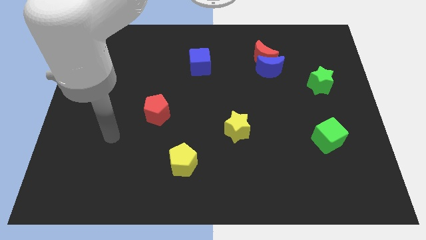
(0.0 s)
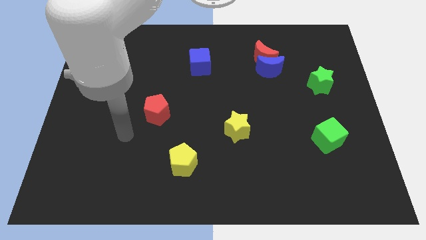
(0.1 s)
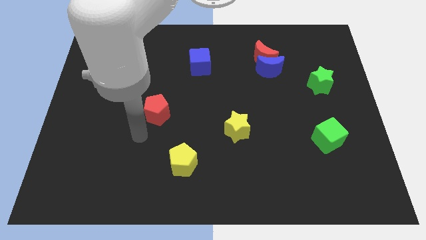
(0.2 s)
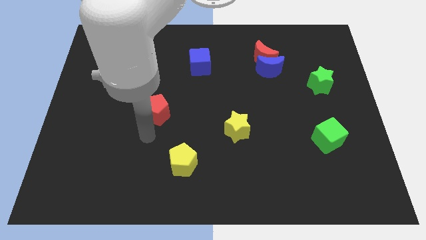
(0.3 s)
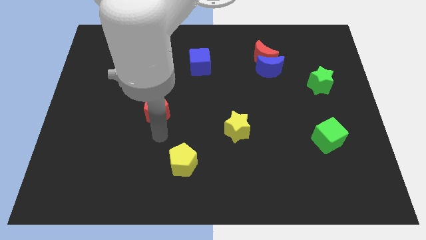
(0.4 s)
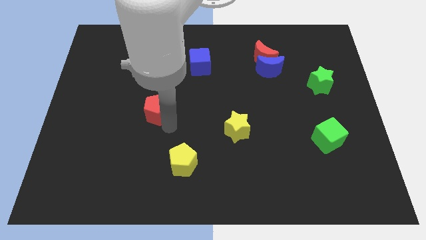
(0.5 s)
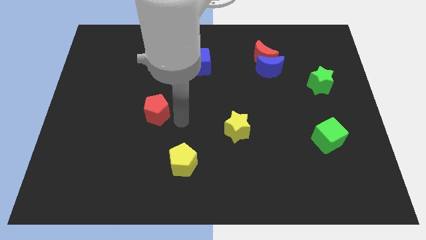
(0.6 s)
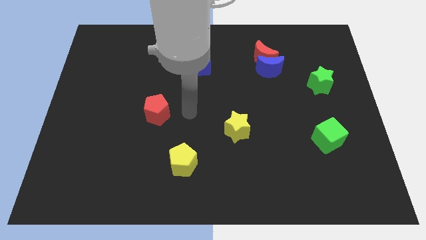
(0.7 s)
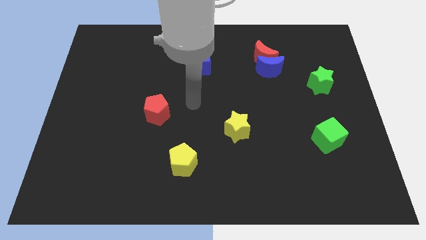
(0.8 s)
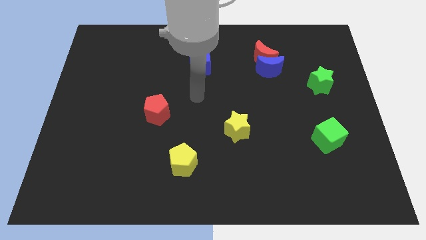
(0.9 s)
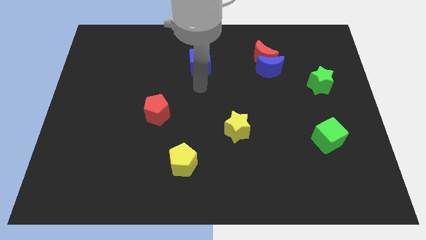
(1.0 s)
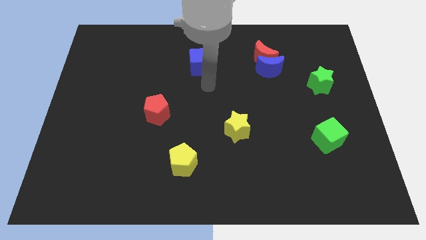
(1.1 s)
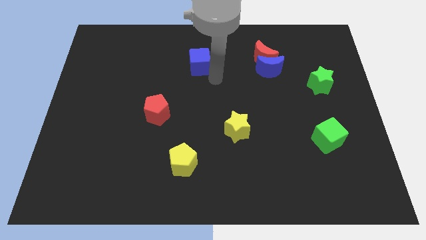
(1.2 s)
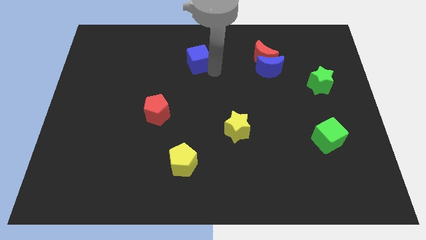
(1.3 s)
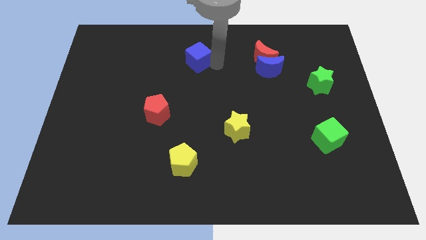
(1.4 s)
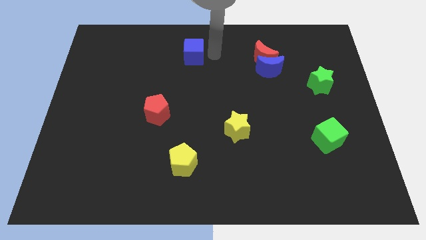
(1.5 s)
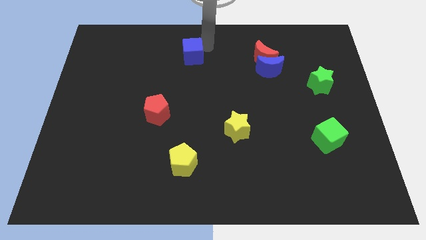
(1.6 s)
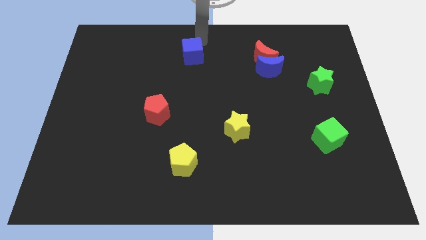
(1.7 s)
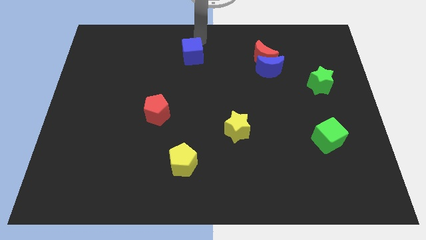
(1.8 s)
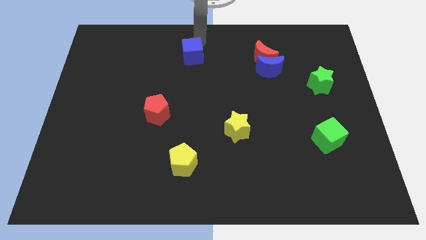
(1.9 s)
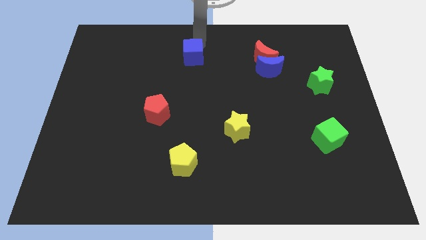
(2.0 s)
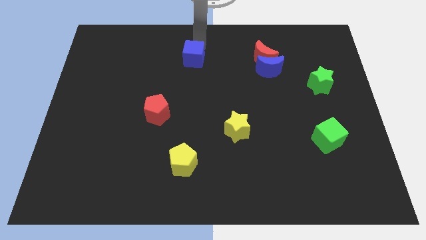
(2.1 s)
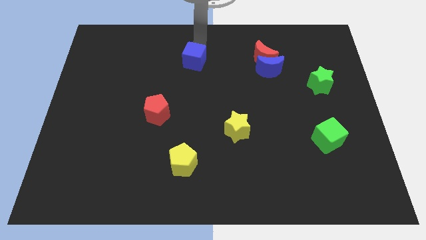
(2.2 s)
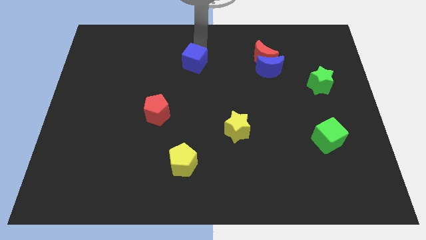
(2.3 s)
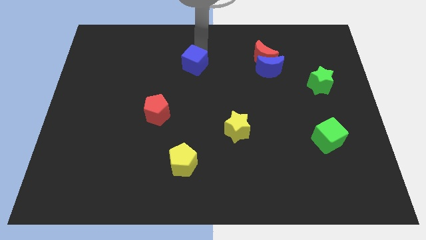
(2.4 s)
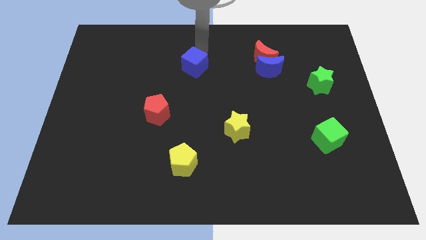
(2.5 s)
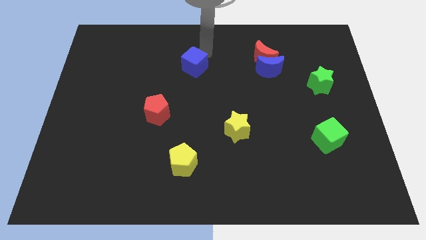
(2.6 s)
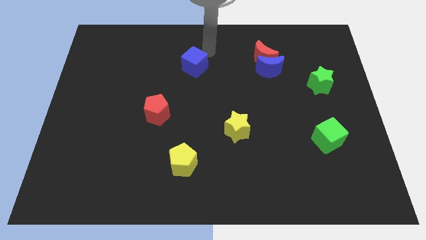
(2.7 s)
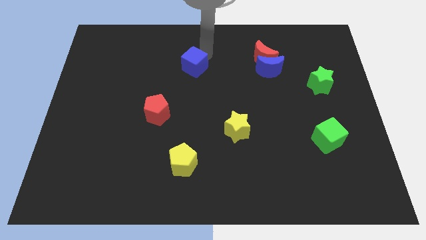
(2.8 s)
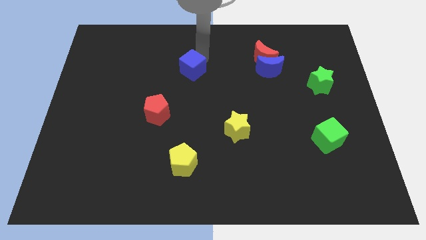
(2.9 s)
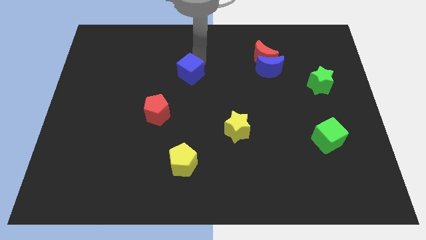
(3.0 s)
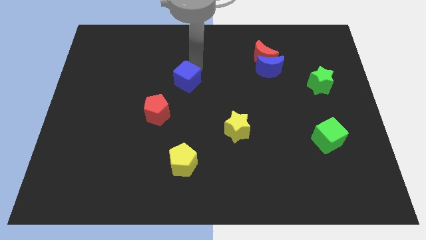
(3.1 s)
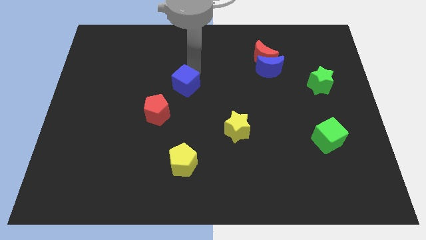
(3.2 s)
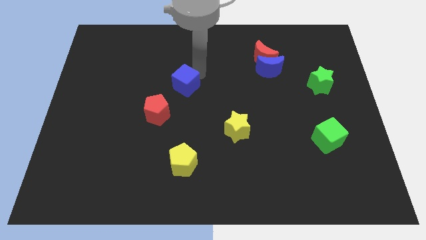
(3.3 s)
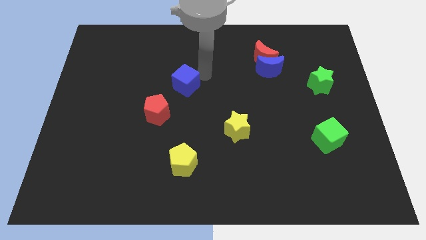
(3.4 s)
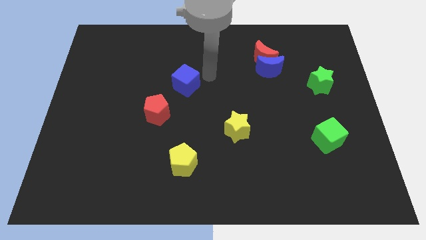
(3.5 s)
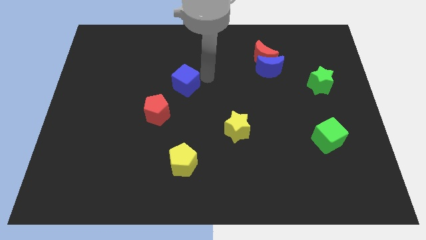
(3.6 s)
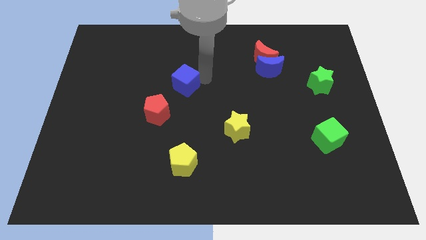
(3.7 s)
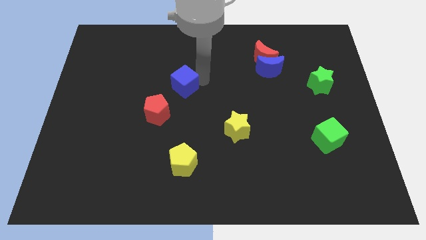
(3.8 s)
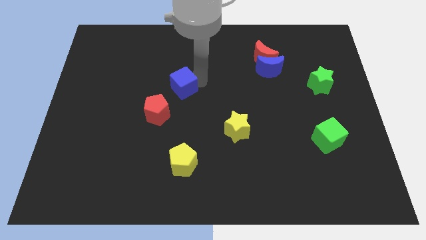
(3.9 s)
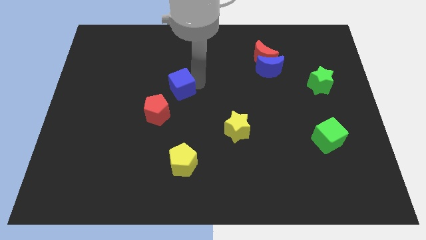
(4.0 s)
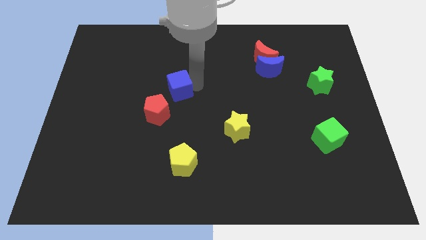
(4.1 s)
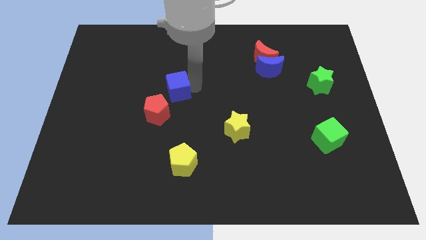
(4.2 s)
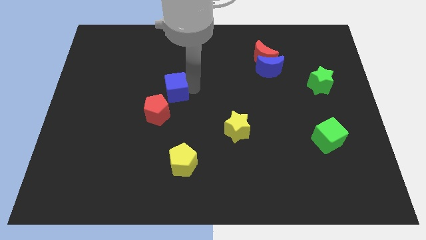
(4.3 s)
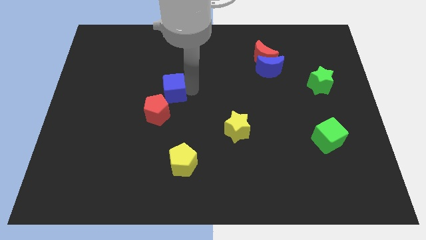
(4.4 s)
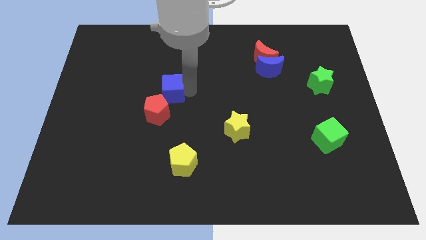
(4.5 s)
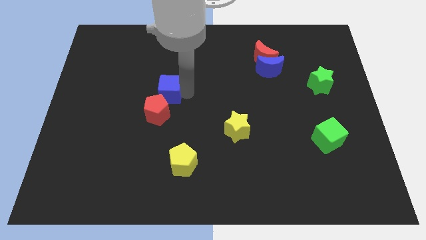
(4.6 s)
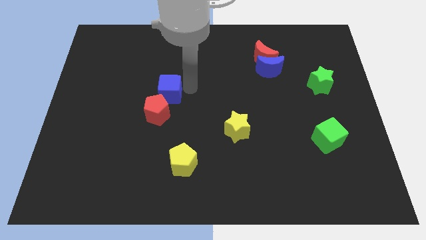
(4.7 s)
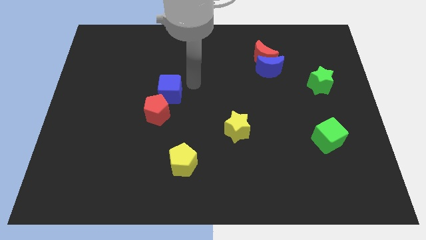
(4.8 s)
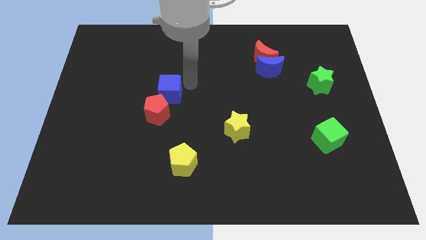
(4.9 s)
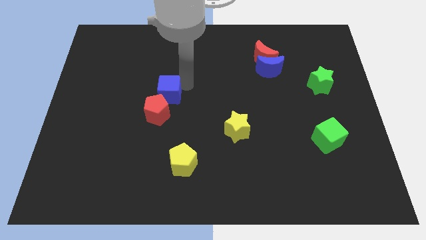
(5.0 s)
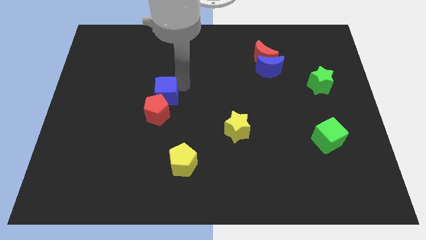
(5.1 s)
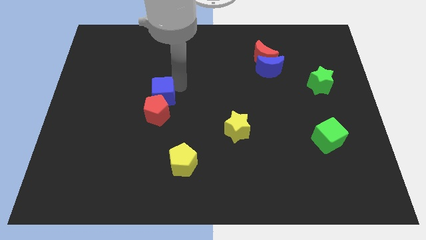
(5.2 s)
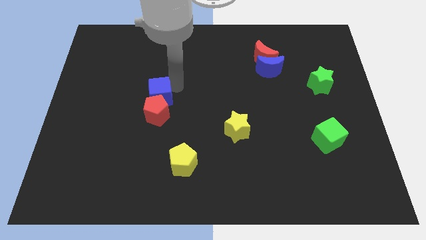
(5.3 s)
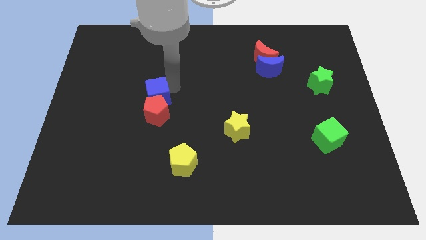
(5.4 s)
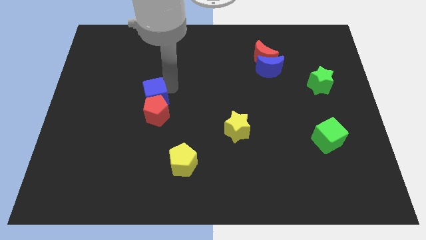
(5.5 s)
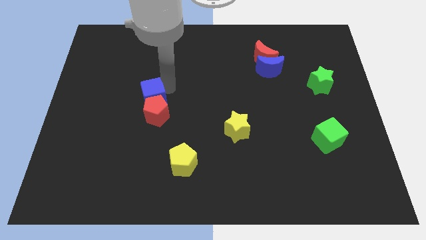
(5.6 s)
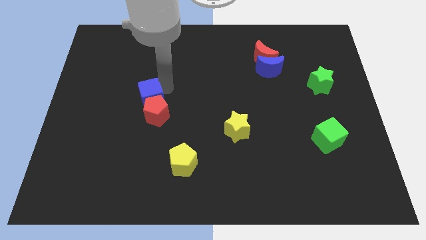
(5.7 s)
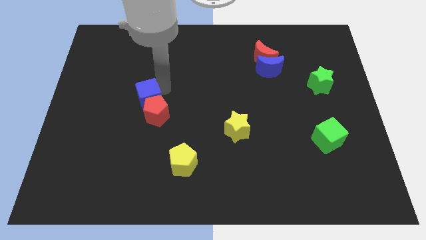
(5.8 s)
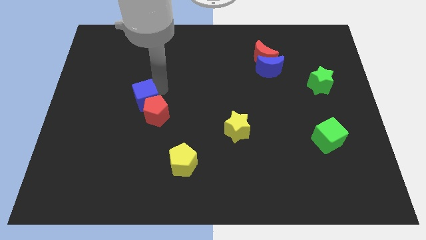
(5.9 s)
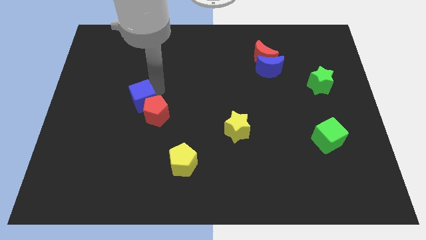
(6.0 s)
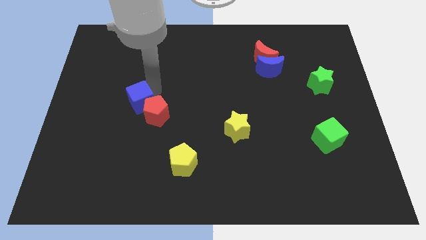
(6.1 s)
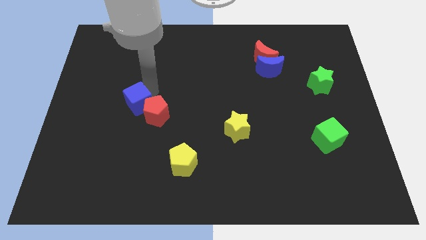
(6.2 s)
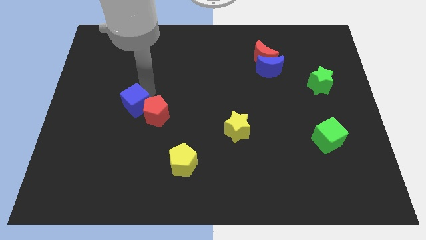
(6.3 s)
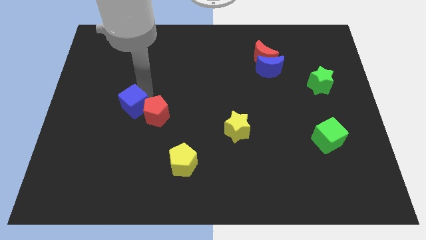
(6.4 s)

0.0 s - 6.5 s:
push the blue cube downwards and to the left

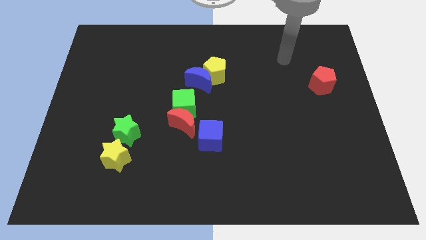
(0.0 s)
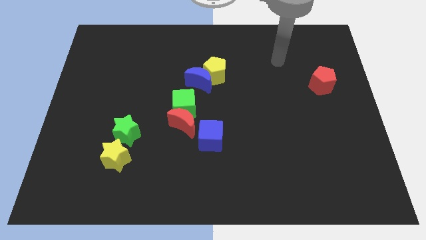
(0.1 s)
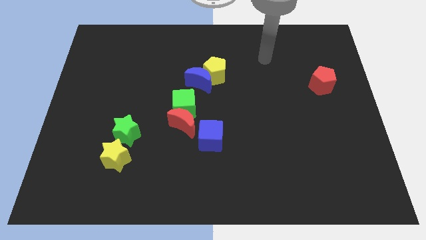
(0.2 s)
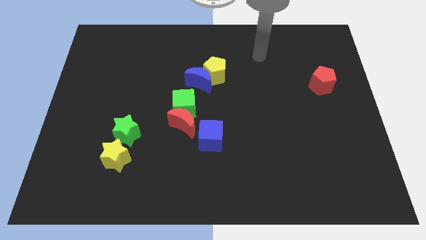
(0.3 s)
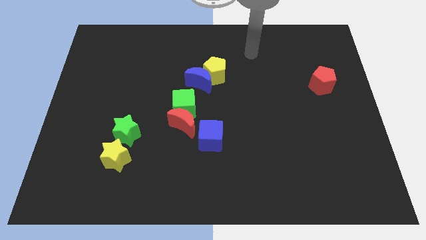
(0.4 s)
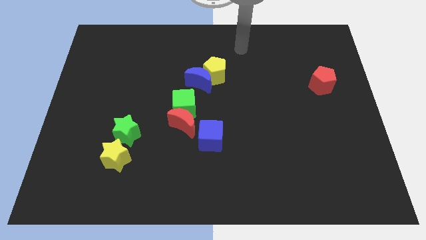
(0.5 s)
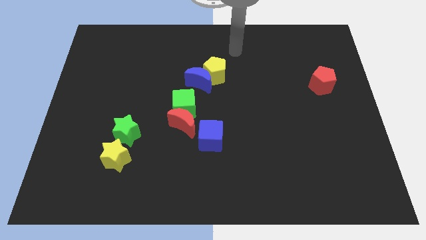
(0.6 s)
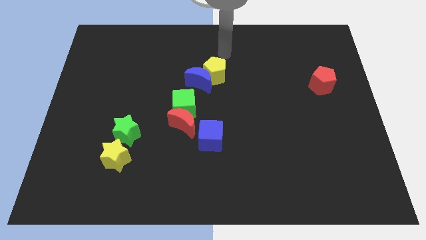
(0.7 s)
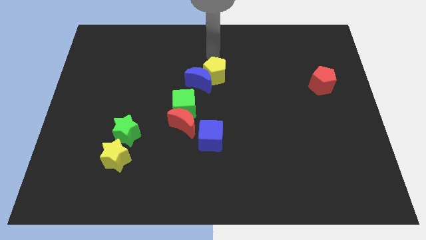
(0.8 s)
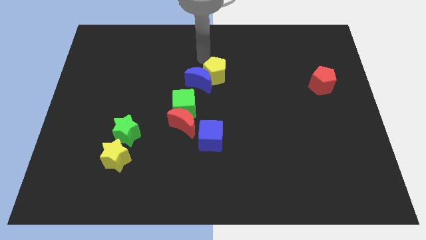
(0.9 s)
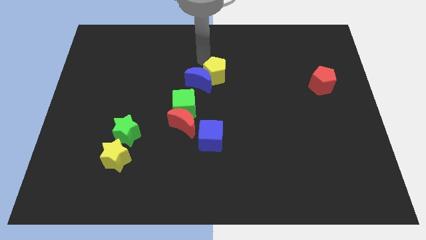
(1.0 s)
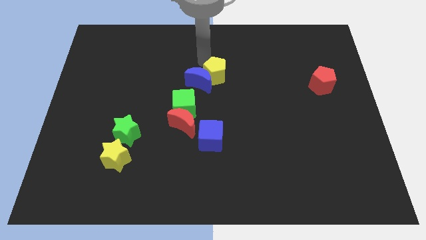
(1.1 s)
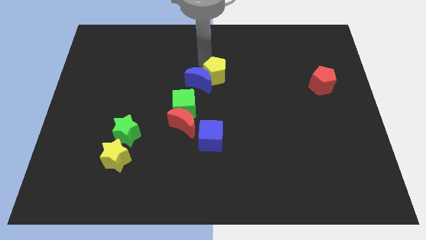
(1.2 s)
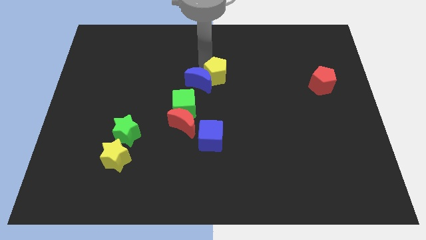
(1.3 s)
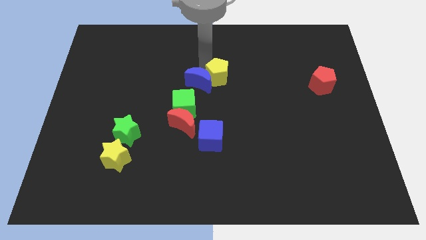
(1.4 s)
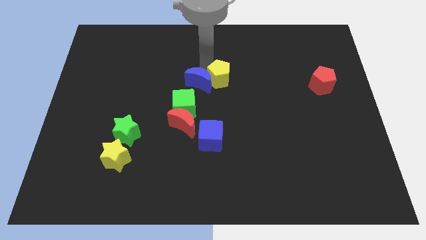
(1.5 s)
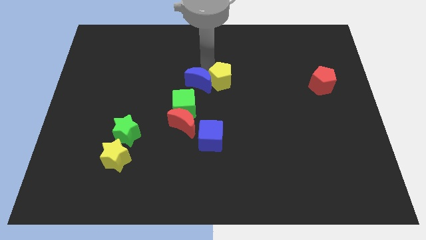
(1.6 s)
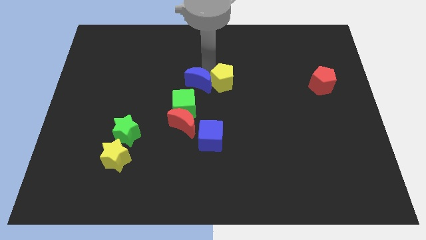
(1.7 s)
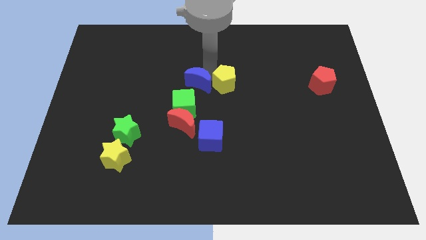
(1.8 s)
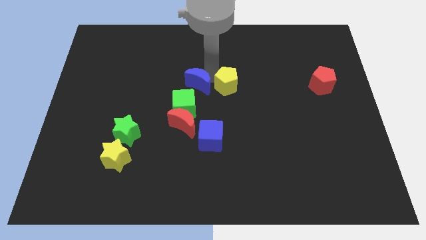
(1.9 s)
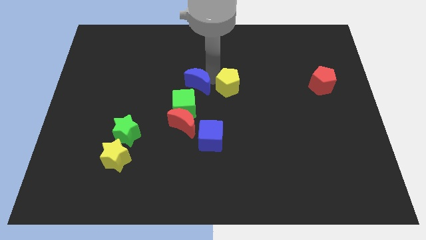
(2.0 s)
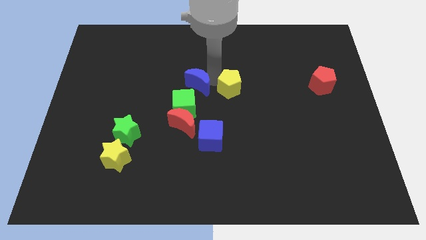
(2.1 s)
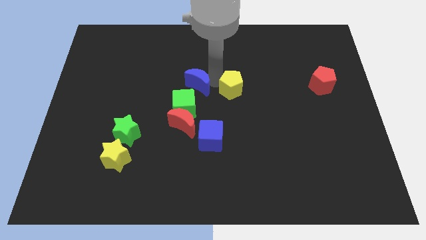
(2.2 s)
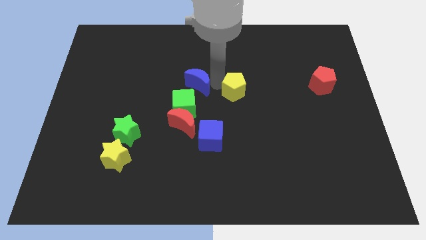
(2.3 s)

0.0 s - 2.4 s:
move the yellow pentagon down and then to the right slightly
